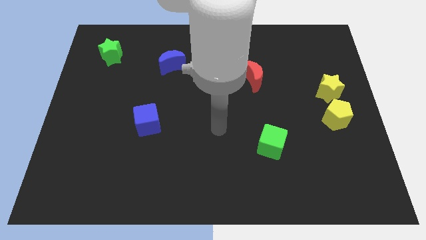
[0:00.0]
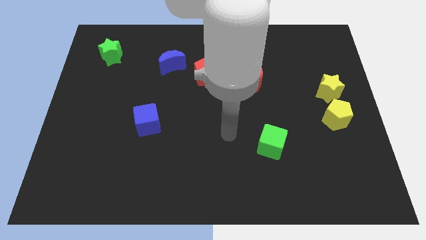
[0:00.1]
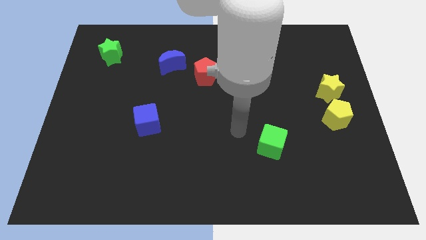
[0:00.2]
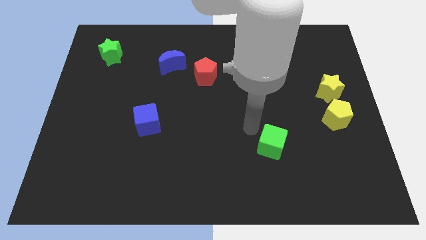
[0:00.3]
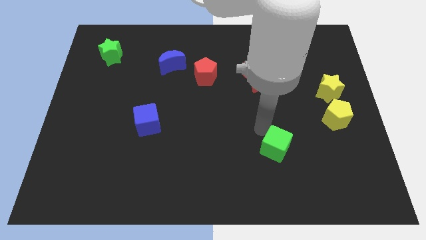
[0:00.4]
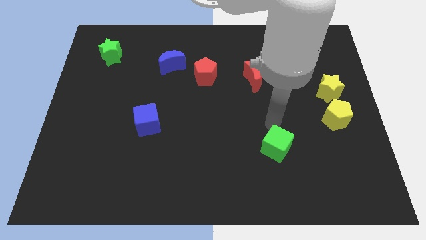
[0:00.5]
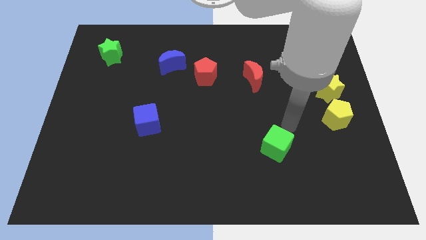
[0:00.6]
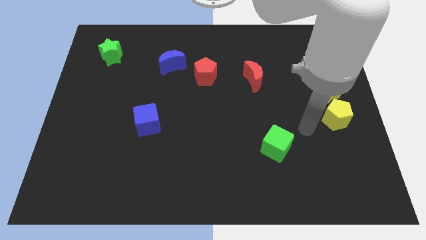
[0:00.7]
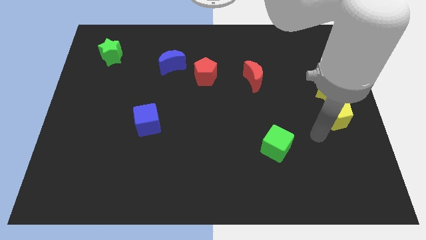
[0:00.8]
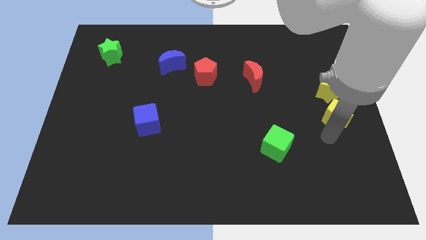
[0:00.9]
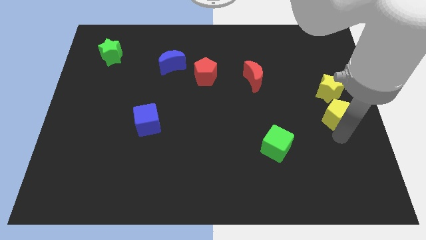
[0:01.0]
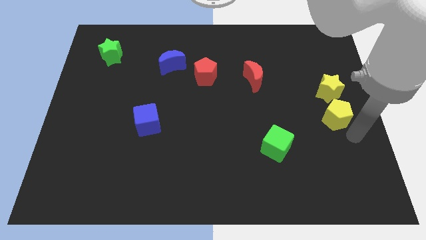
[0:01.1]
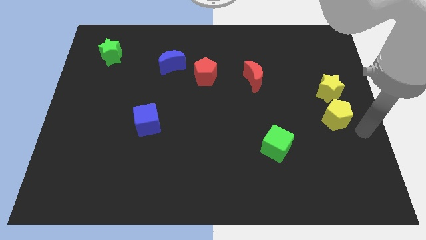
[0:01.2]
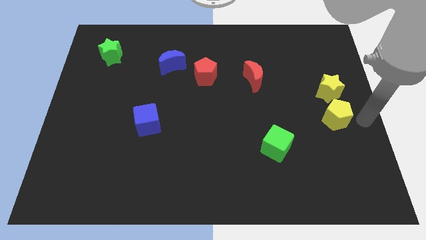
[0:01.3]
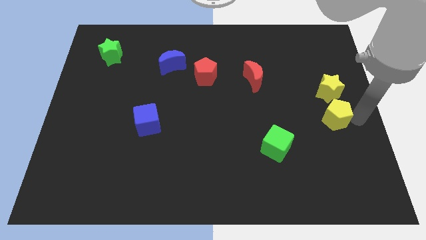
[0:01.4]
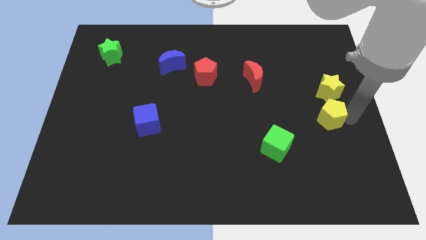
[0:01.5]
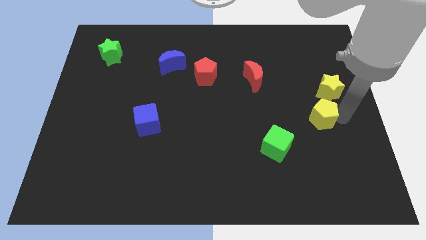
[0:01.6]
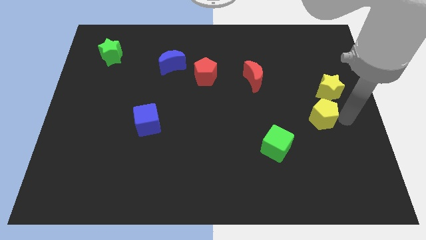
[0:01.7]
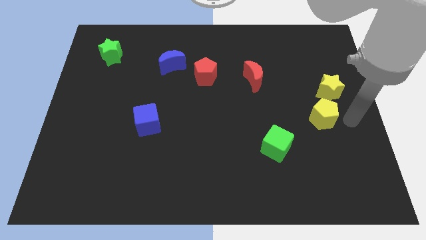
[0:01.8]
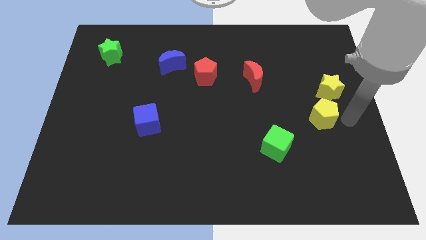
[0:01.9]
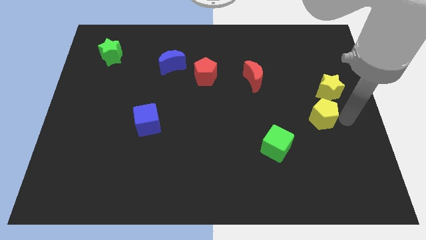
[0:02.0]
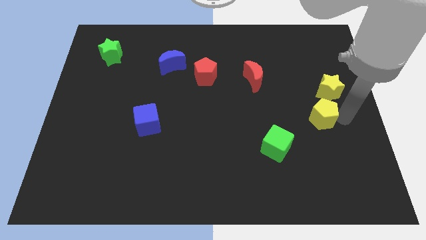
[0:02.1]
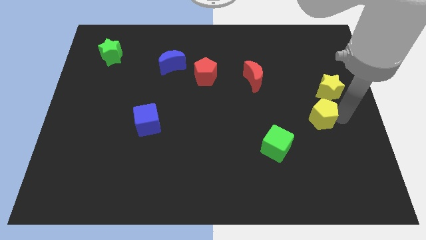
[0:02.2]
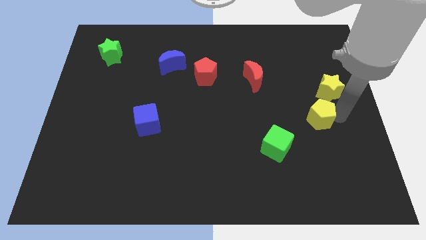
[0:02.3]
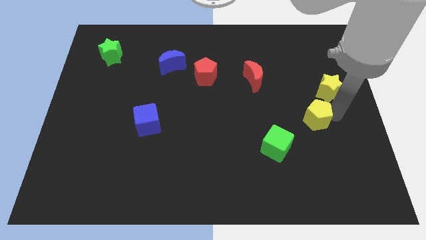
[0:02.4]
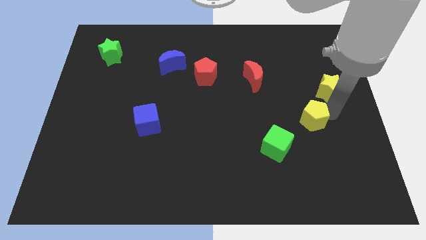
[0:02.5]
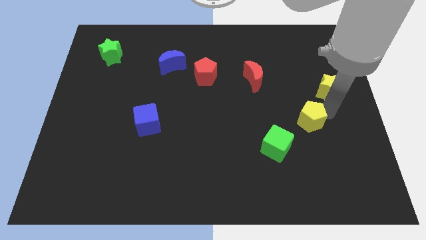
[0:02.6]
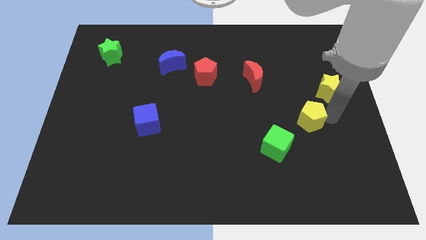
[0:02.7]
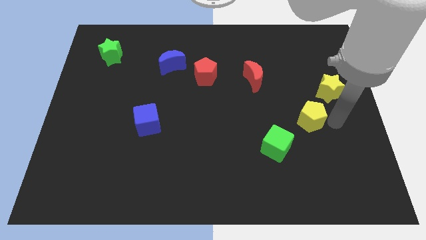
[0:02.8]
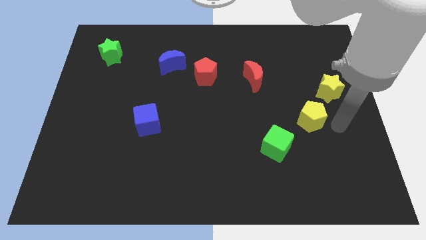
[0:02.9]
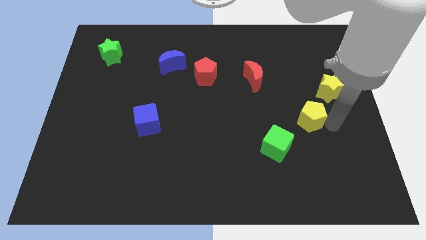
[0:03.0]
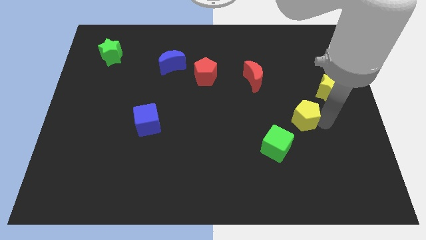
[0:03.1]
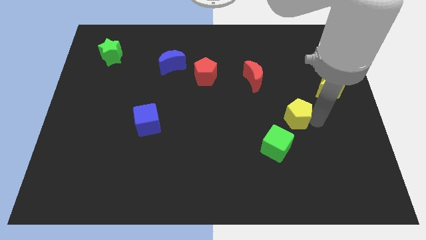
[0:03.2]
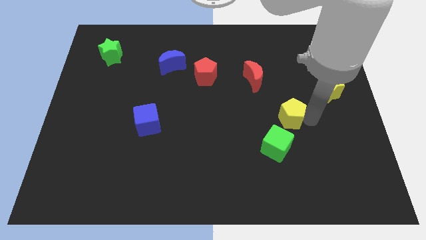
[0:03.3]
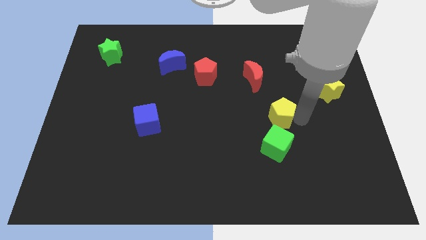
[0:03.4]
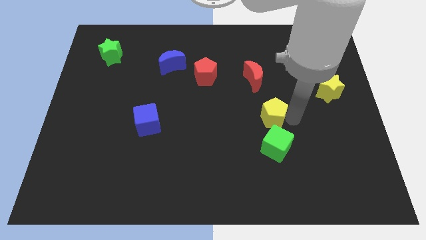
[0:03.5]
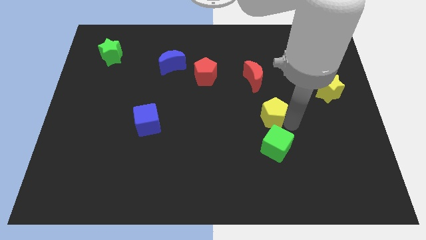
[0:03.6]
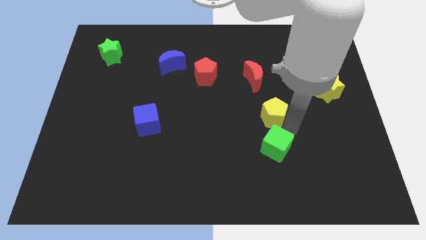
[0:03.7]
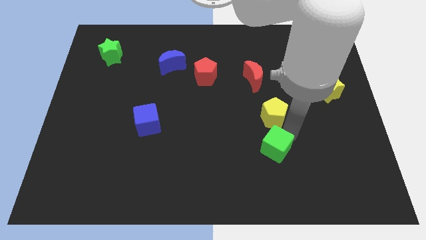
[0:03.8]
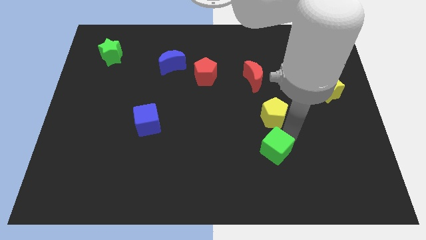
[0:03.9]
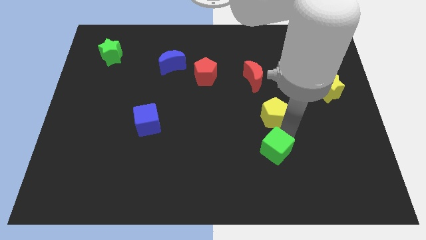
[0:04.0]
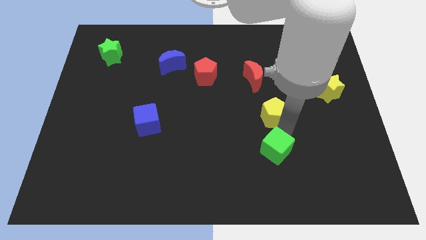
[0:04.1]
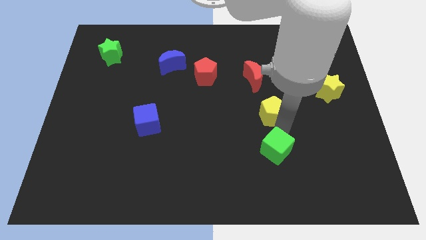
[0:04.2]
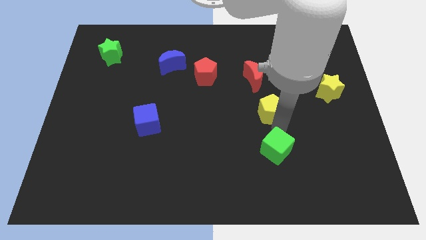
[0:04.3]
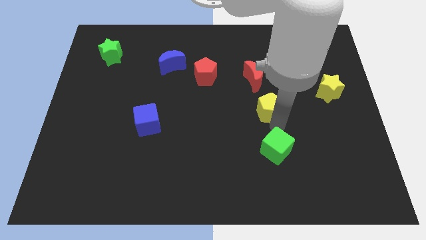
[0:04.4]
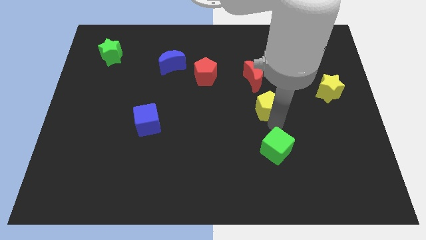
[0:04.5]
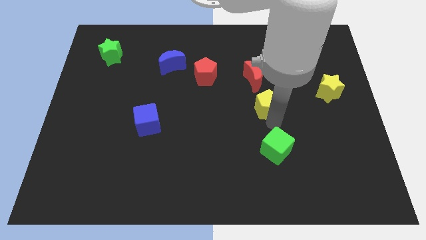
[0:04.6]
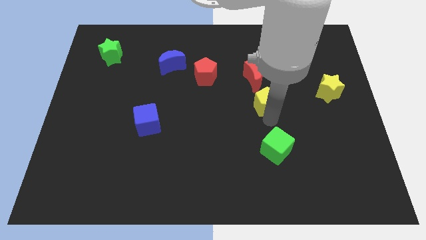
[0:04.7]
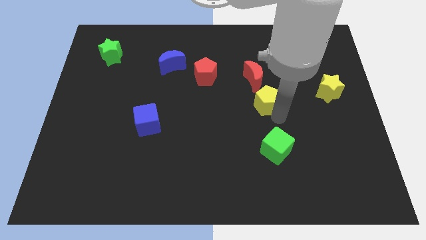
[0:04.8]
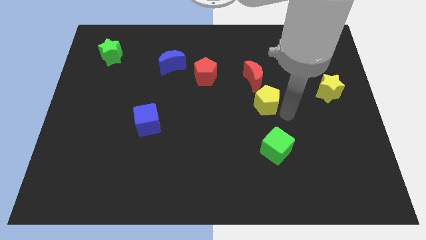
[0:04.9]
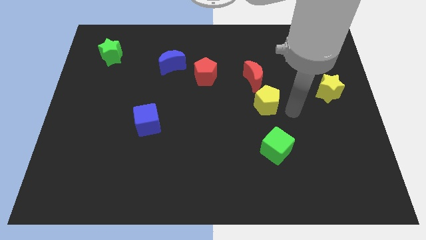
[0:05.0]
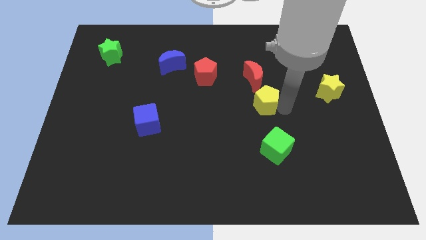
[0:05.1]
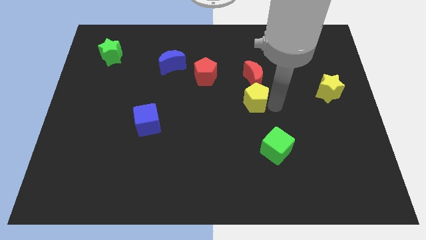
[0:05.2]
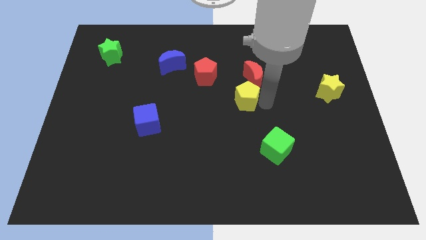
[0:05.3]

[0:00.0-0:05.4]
slide the yellow pentagon to the bottom right side of the red pentagon

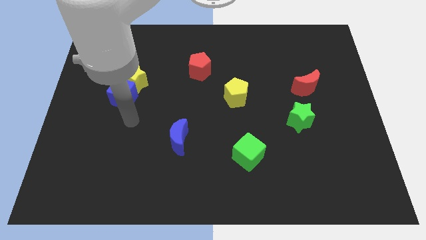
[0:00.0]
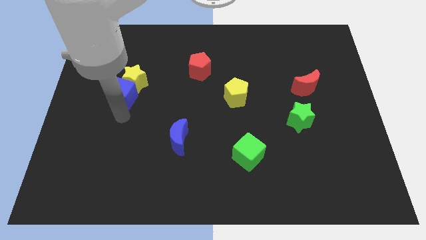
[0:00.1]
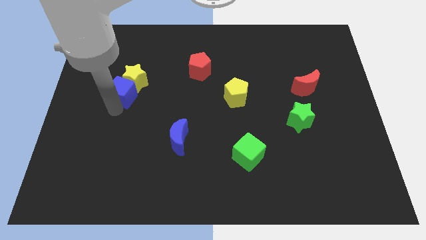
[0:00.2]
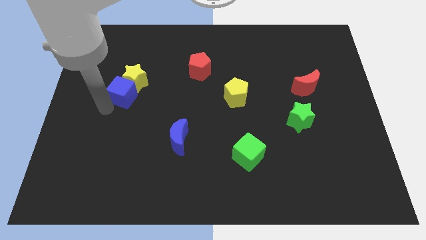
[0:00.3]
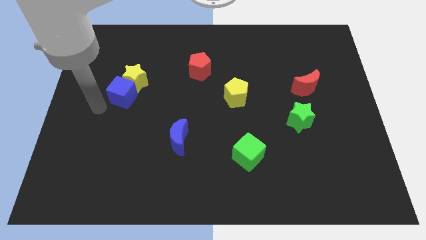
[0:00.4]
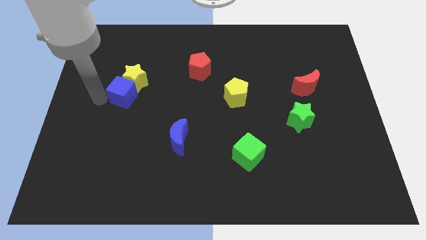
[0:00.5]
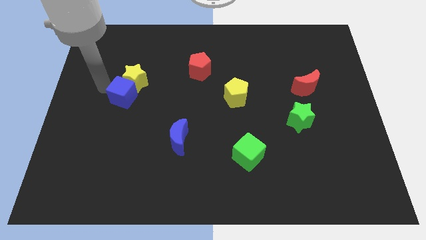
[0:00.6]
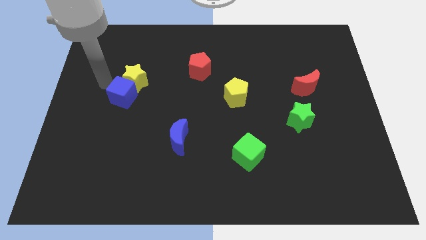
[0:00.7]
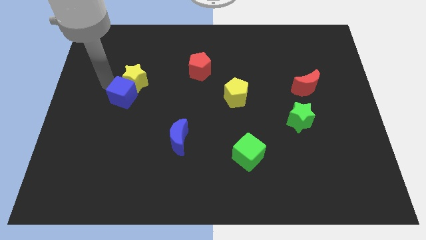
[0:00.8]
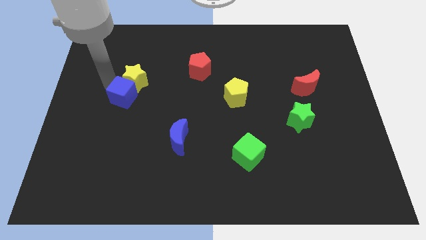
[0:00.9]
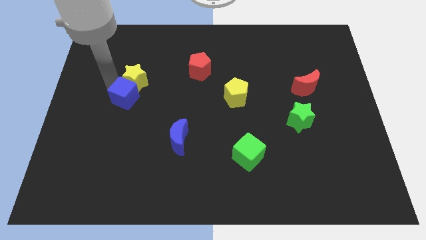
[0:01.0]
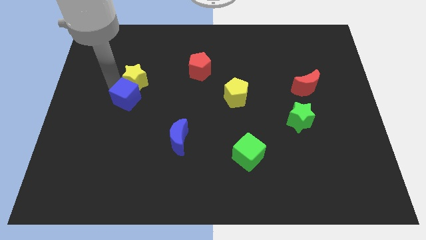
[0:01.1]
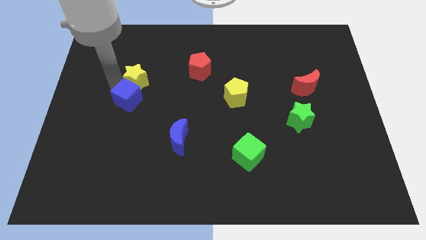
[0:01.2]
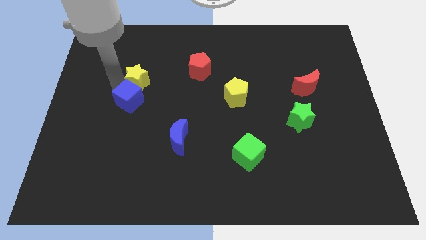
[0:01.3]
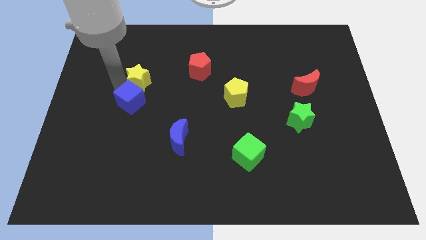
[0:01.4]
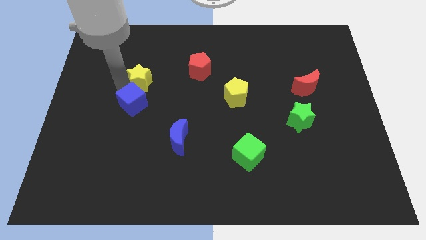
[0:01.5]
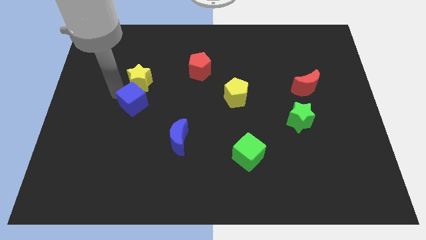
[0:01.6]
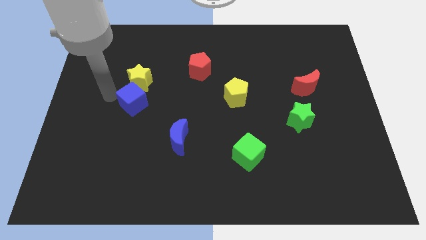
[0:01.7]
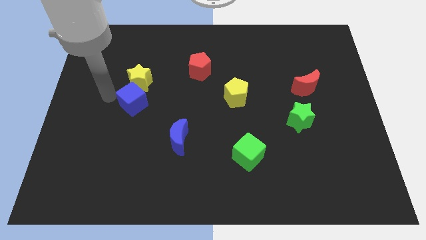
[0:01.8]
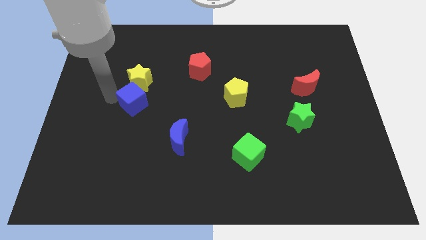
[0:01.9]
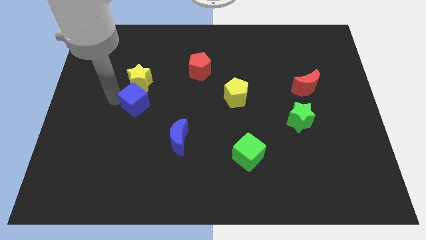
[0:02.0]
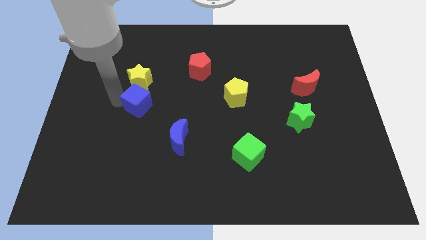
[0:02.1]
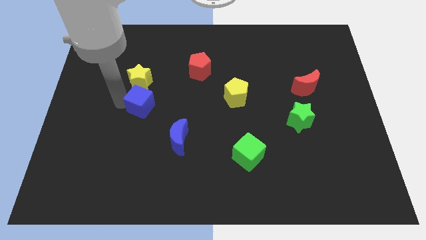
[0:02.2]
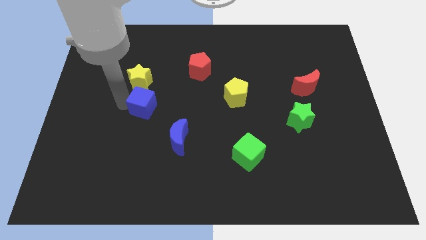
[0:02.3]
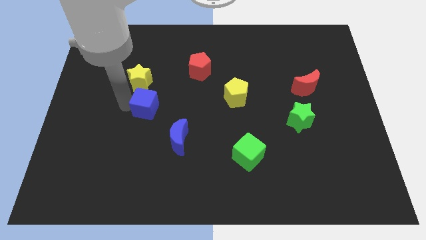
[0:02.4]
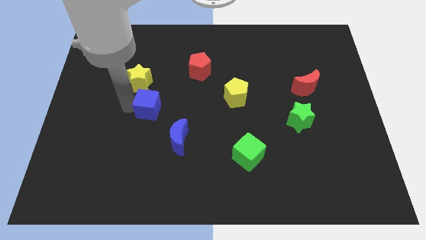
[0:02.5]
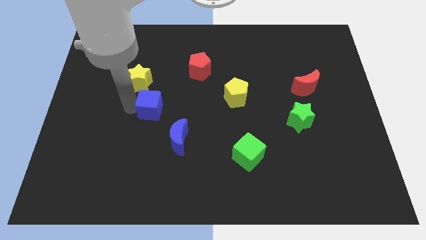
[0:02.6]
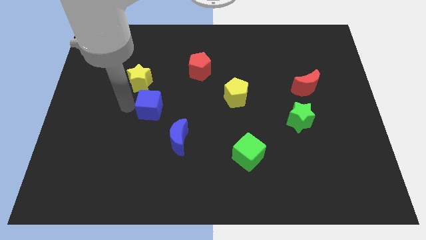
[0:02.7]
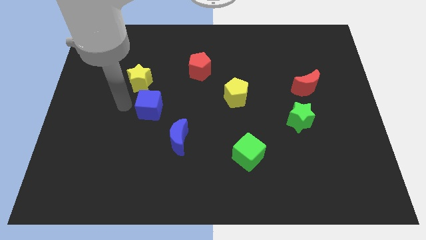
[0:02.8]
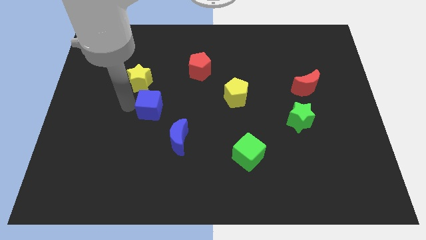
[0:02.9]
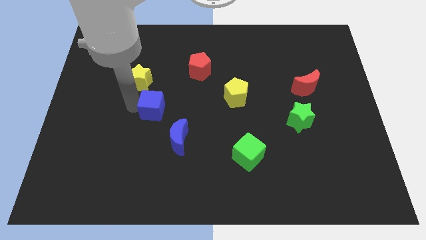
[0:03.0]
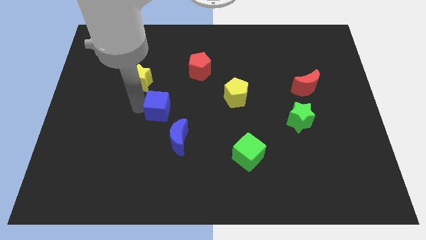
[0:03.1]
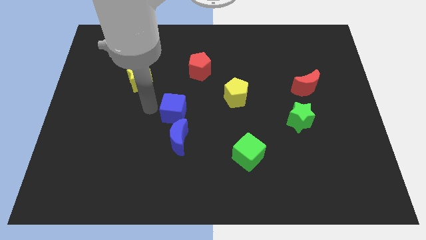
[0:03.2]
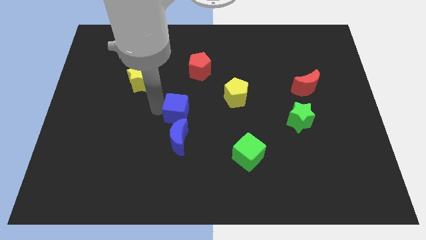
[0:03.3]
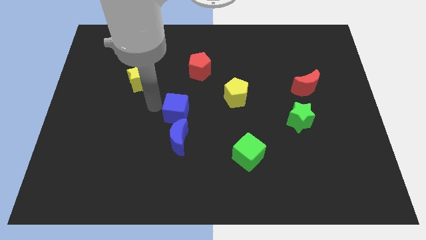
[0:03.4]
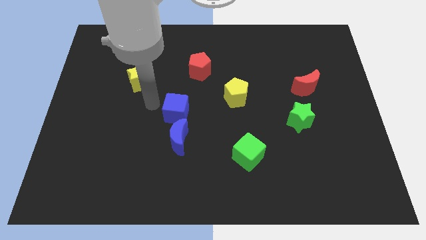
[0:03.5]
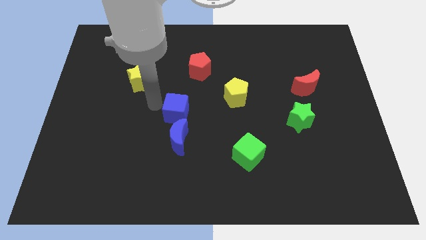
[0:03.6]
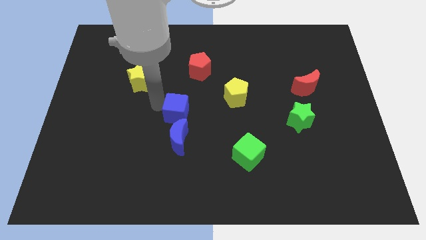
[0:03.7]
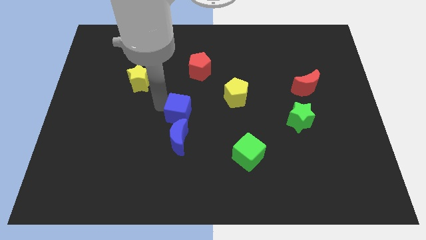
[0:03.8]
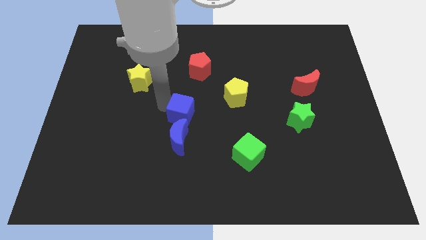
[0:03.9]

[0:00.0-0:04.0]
slide the blue cube to the top right of the blue moon
